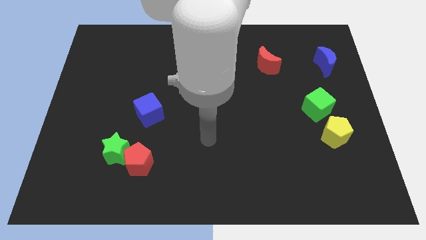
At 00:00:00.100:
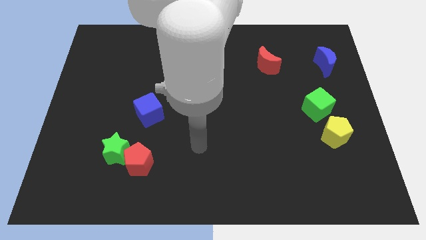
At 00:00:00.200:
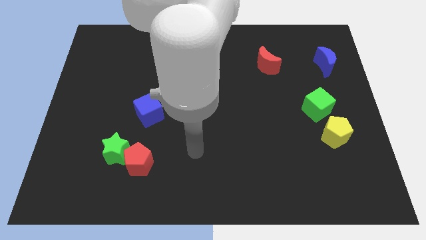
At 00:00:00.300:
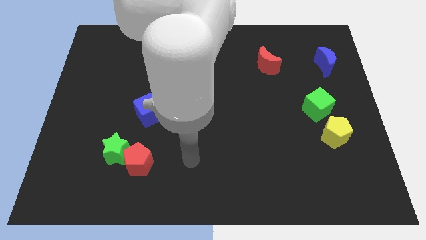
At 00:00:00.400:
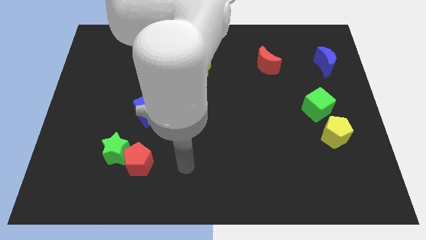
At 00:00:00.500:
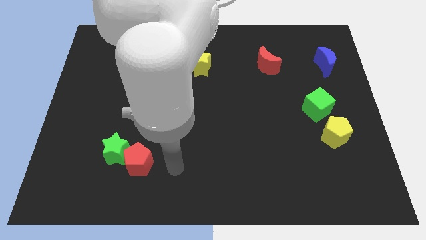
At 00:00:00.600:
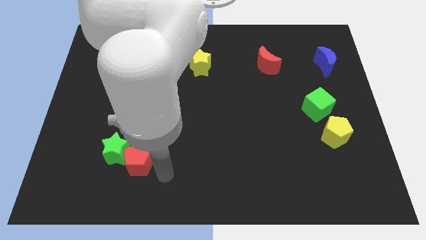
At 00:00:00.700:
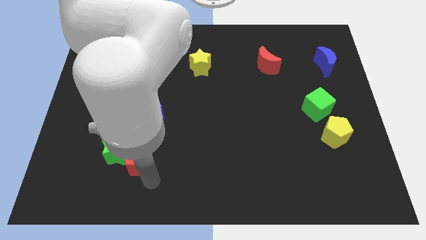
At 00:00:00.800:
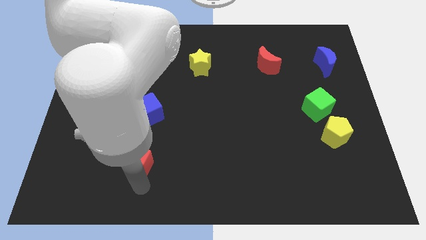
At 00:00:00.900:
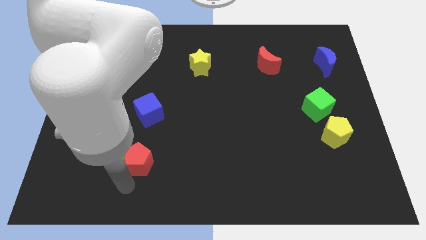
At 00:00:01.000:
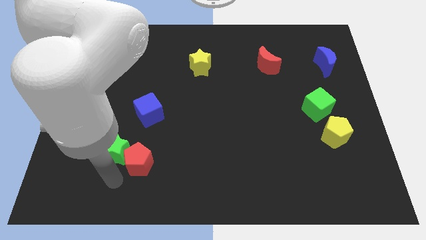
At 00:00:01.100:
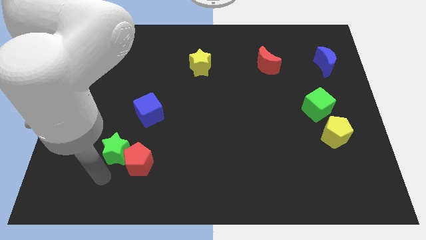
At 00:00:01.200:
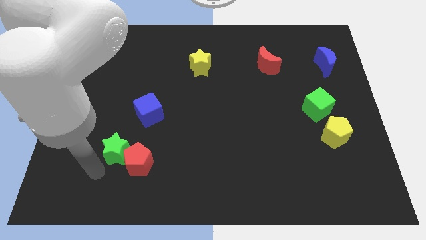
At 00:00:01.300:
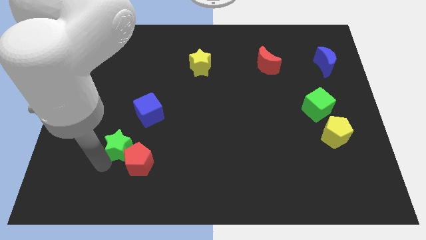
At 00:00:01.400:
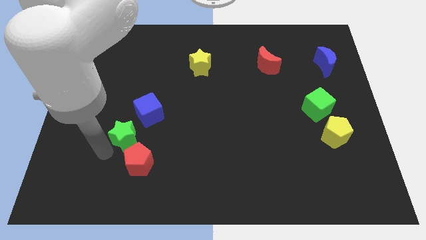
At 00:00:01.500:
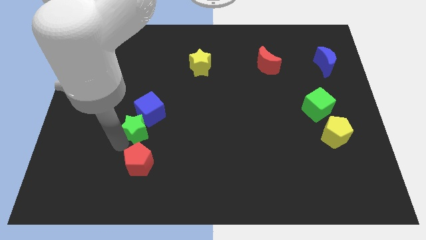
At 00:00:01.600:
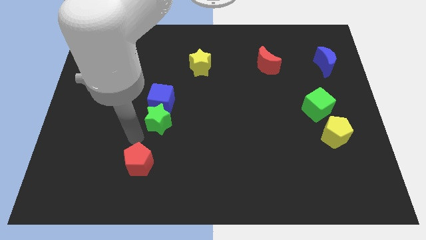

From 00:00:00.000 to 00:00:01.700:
separate the red pentagon from the green star

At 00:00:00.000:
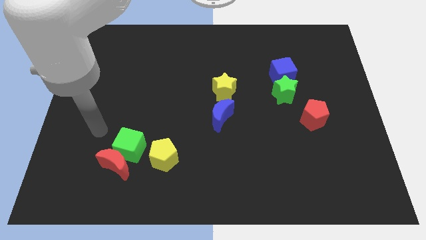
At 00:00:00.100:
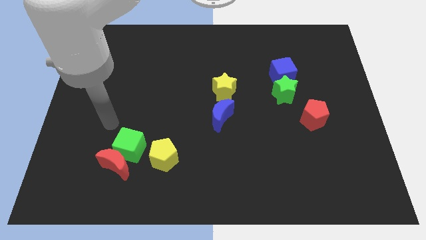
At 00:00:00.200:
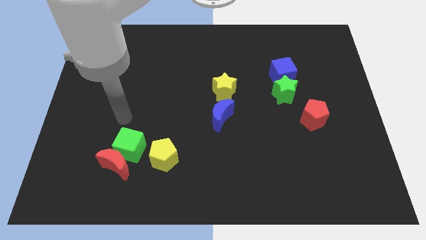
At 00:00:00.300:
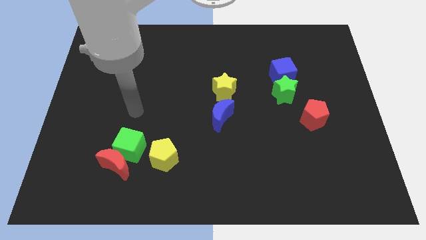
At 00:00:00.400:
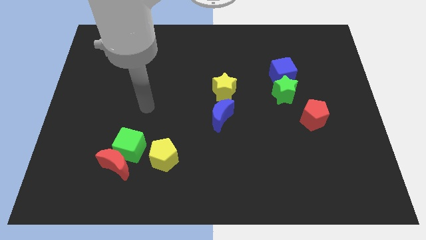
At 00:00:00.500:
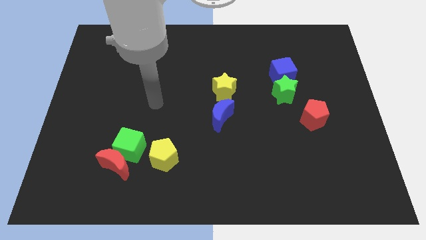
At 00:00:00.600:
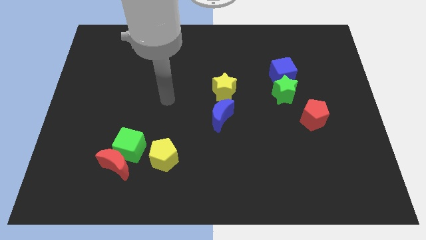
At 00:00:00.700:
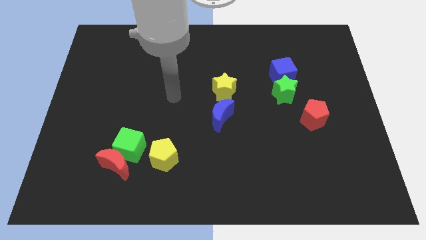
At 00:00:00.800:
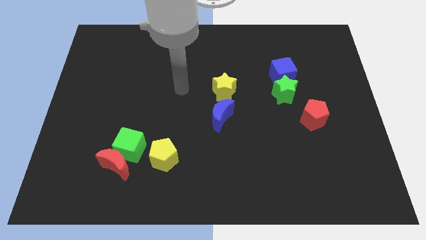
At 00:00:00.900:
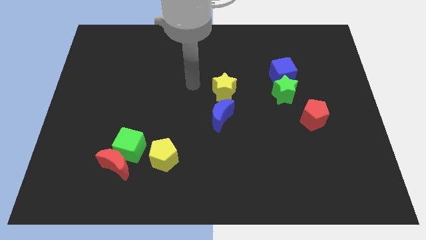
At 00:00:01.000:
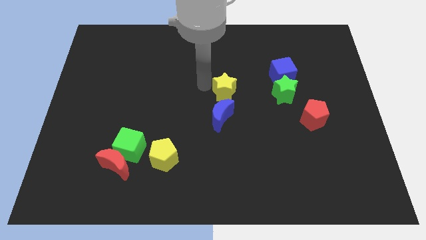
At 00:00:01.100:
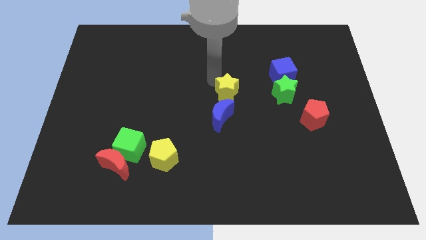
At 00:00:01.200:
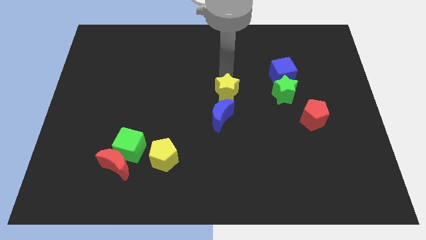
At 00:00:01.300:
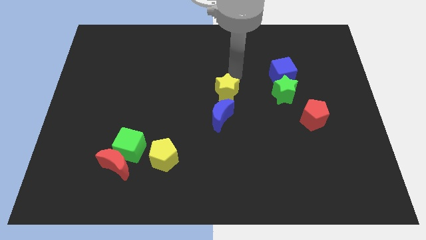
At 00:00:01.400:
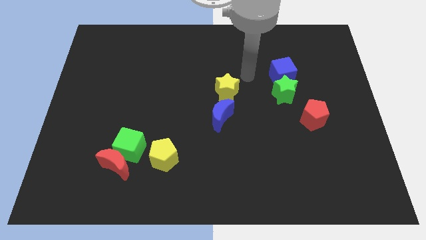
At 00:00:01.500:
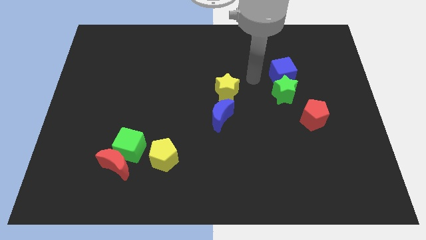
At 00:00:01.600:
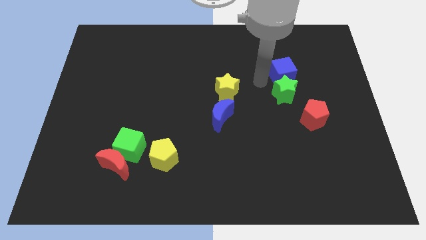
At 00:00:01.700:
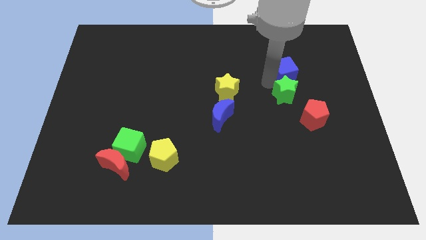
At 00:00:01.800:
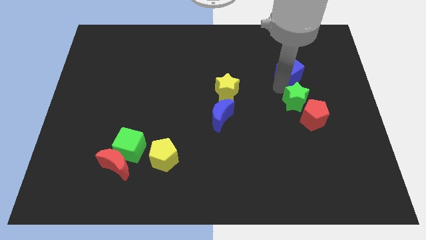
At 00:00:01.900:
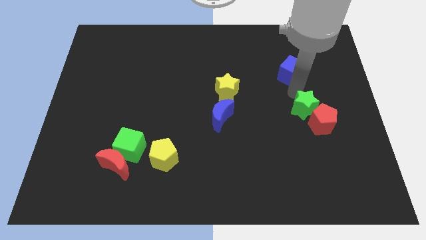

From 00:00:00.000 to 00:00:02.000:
move the blue cube away from the green star

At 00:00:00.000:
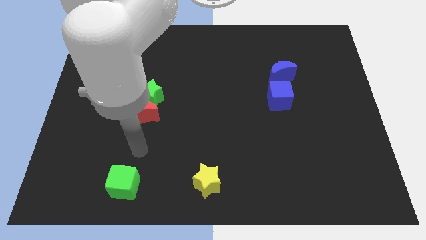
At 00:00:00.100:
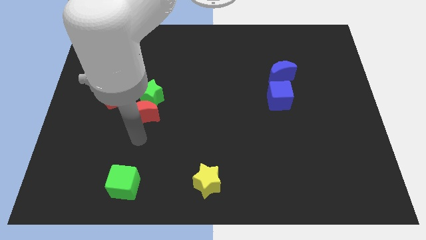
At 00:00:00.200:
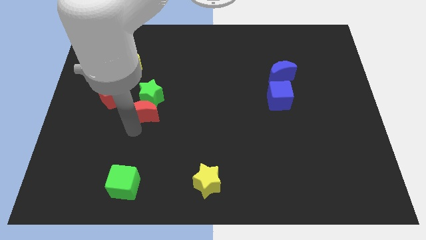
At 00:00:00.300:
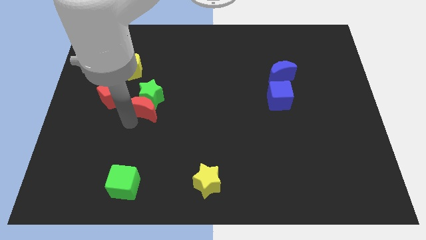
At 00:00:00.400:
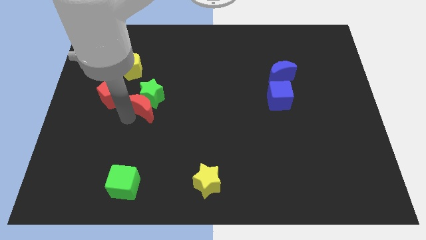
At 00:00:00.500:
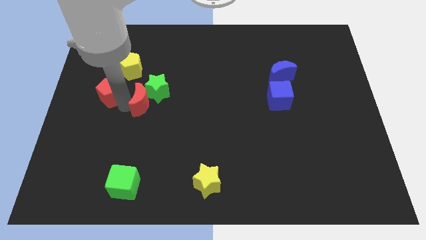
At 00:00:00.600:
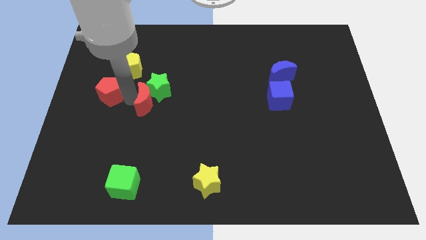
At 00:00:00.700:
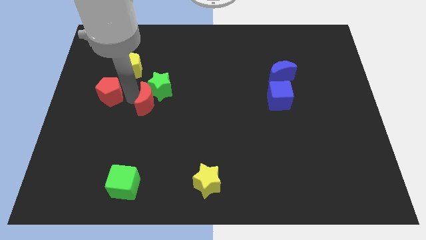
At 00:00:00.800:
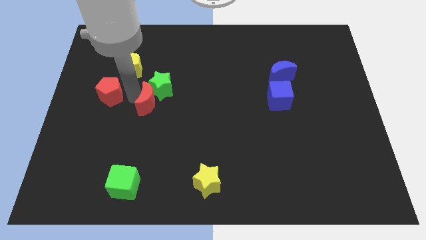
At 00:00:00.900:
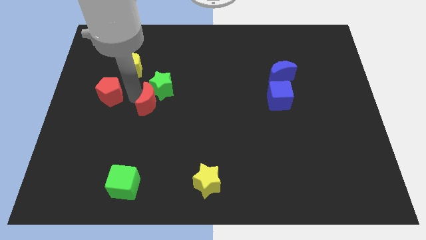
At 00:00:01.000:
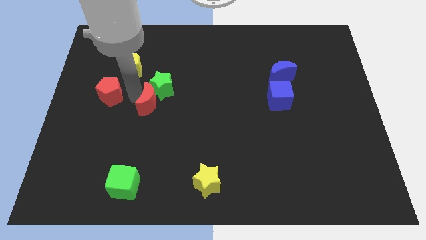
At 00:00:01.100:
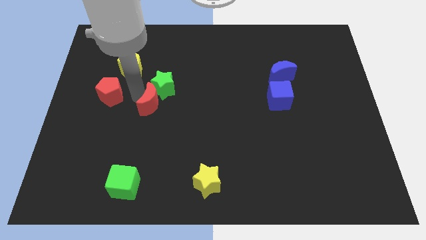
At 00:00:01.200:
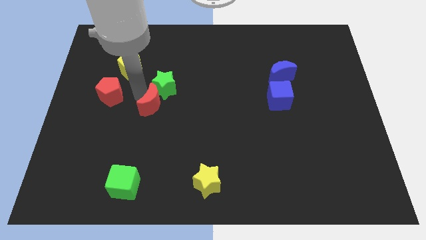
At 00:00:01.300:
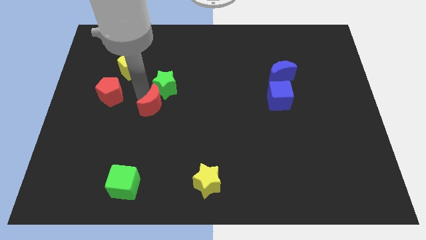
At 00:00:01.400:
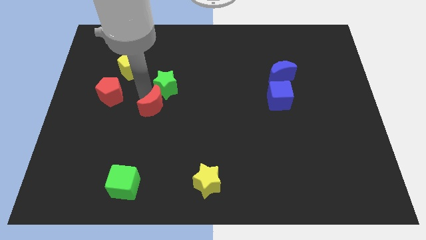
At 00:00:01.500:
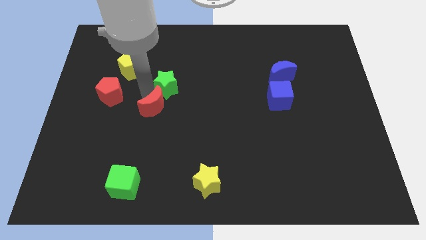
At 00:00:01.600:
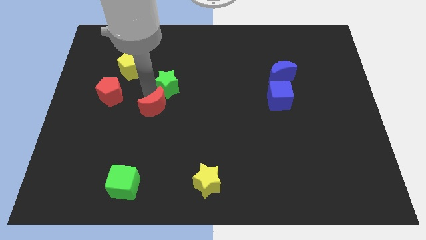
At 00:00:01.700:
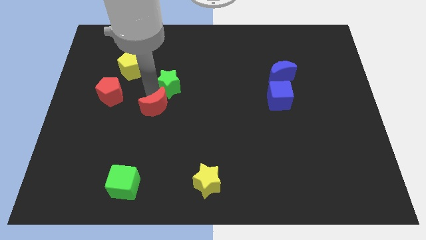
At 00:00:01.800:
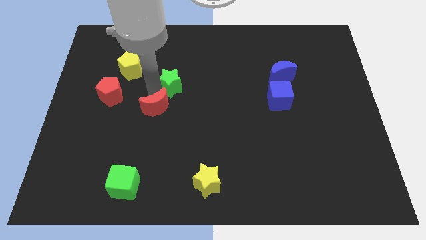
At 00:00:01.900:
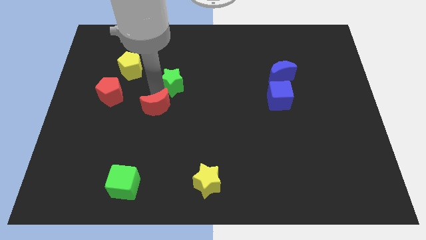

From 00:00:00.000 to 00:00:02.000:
separate the green star from the red moon and red pentagon

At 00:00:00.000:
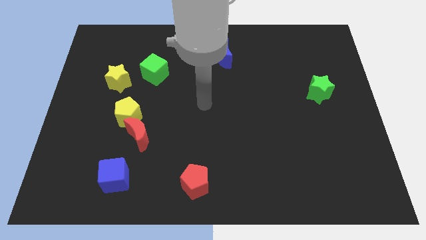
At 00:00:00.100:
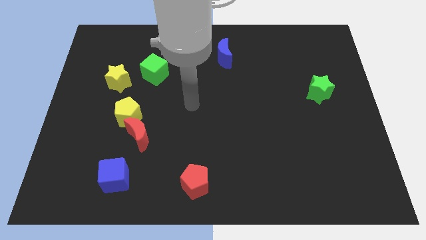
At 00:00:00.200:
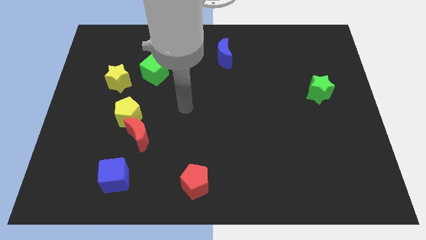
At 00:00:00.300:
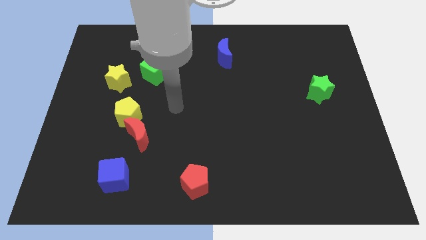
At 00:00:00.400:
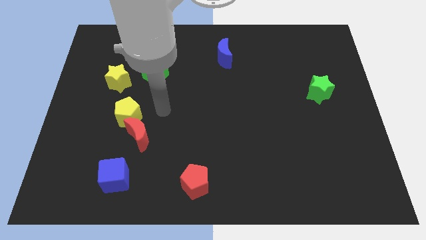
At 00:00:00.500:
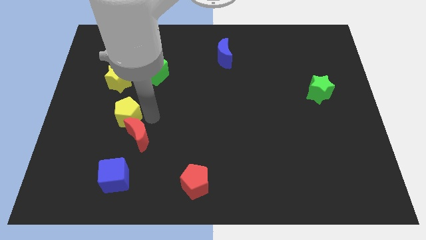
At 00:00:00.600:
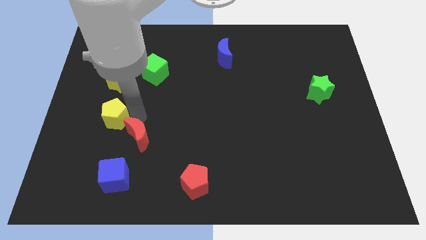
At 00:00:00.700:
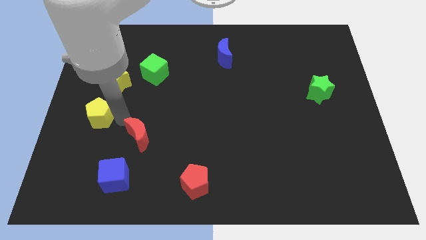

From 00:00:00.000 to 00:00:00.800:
pull the red moon apart from the yellow pentagon

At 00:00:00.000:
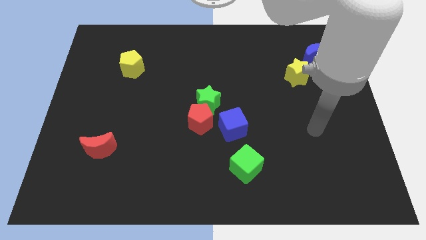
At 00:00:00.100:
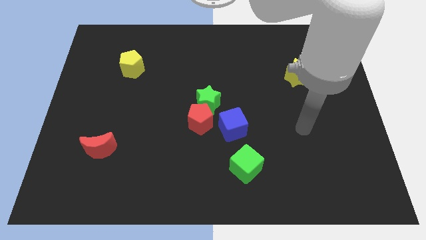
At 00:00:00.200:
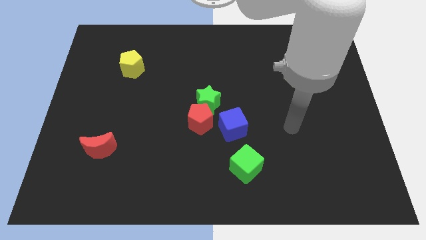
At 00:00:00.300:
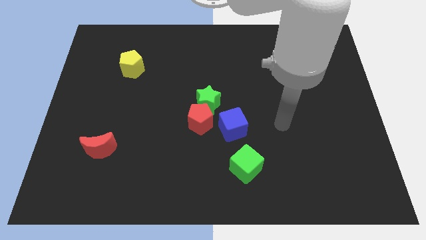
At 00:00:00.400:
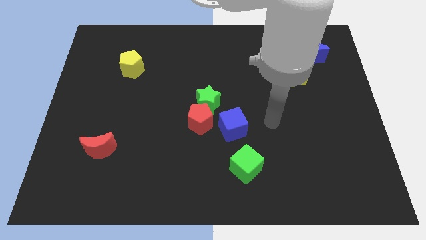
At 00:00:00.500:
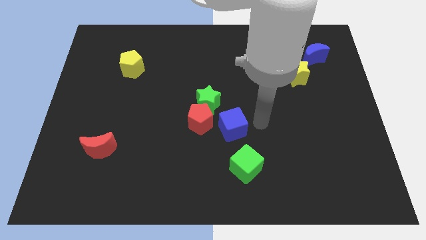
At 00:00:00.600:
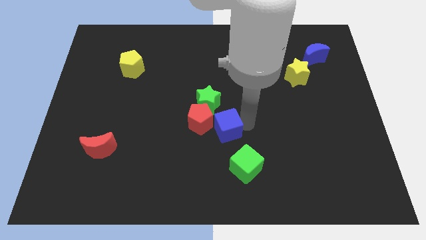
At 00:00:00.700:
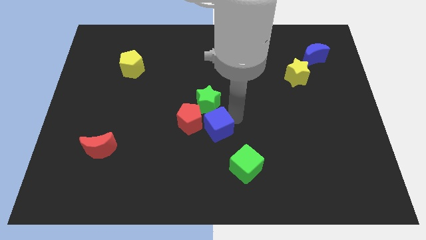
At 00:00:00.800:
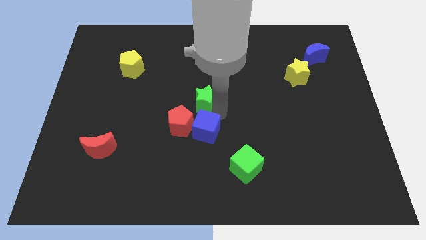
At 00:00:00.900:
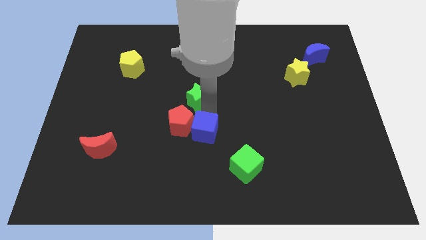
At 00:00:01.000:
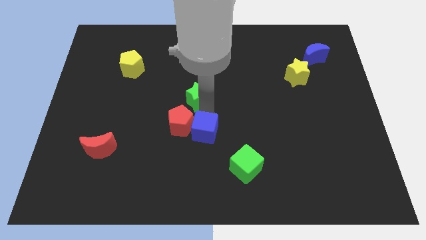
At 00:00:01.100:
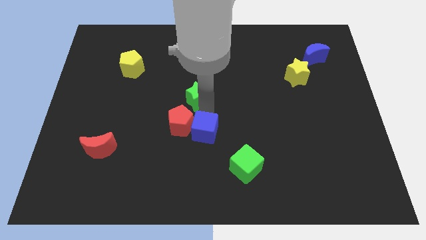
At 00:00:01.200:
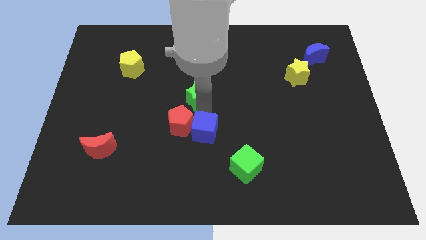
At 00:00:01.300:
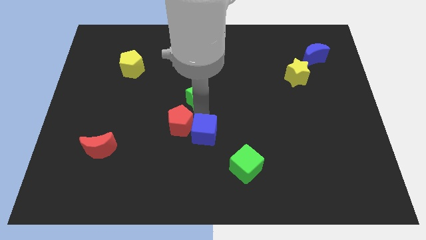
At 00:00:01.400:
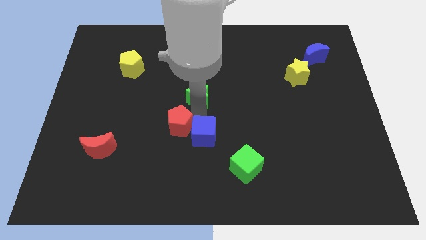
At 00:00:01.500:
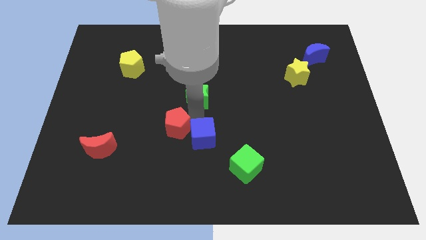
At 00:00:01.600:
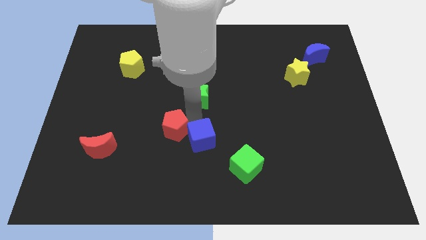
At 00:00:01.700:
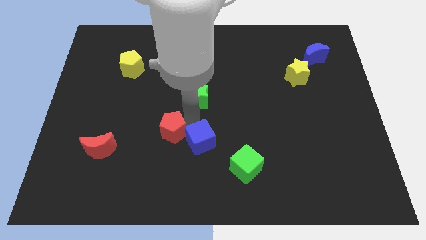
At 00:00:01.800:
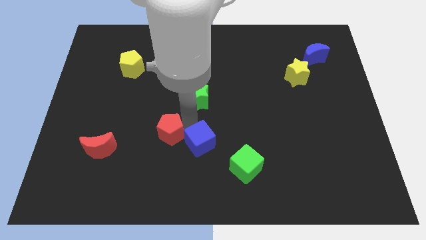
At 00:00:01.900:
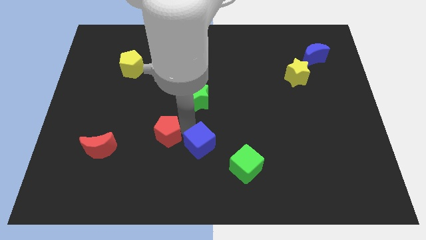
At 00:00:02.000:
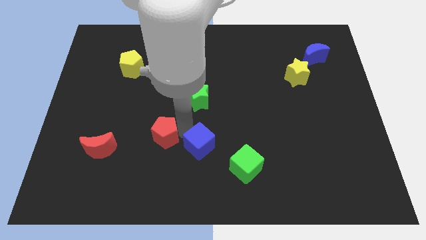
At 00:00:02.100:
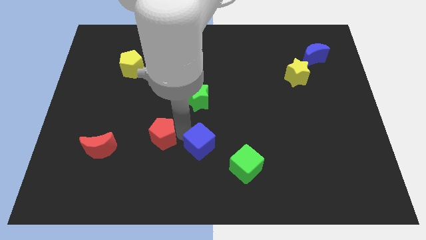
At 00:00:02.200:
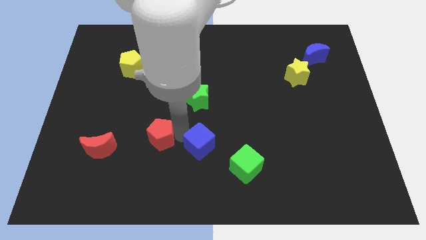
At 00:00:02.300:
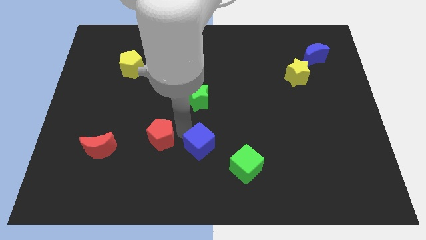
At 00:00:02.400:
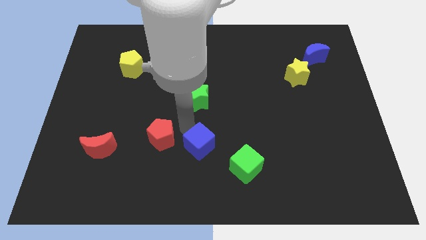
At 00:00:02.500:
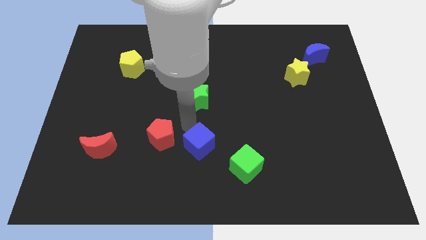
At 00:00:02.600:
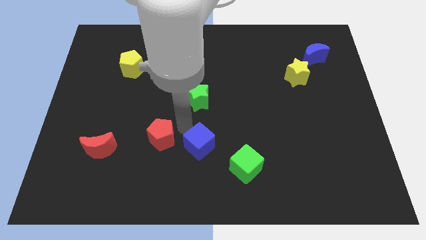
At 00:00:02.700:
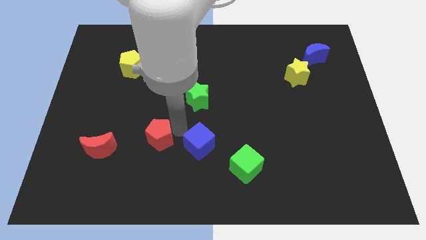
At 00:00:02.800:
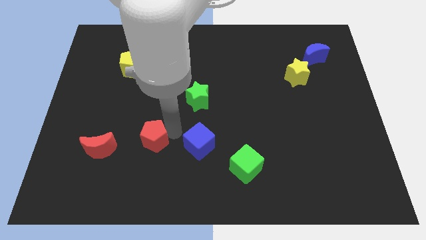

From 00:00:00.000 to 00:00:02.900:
move the red pentagon away from the green star and blue cube
